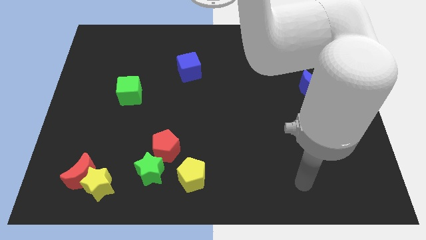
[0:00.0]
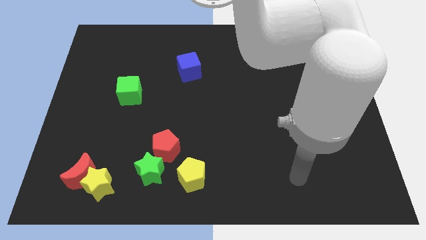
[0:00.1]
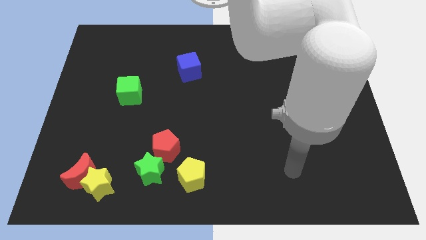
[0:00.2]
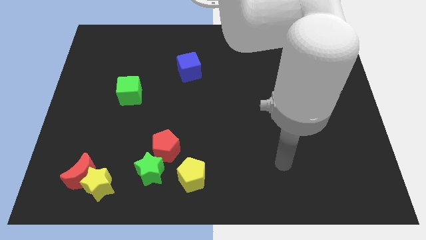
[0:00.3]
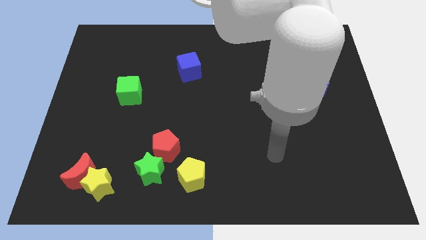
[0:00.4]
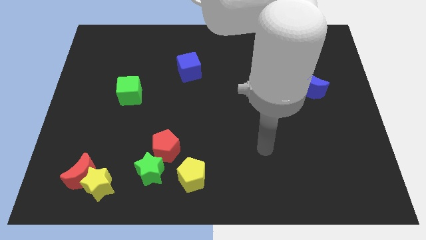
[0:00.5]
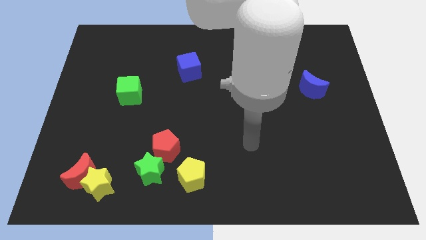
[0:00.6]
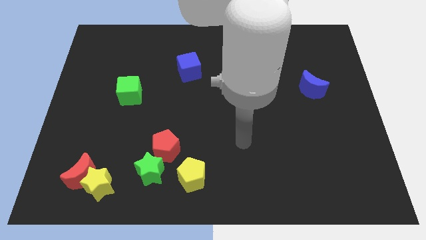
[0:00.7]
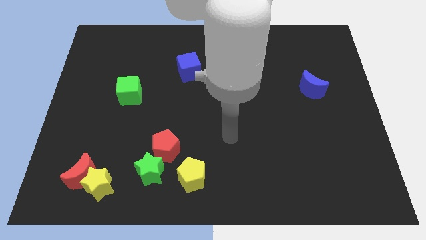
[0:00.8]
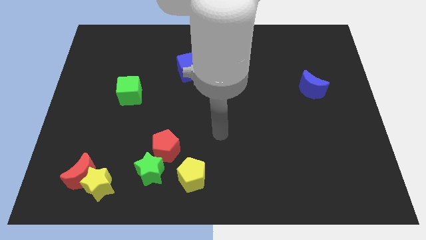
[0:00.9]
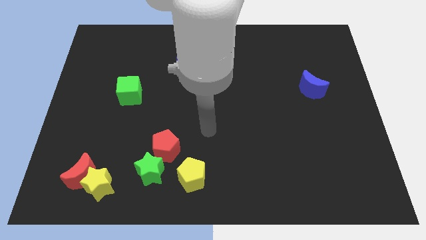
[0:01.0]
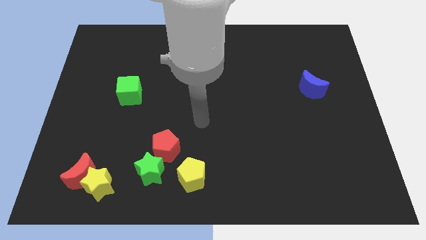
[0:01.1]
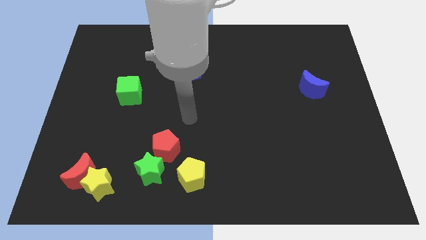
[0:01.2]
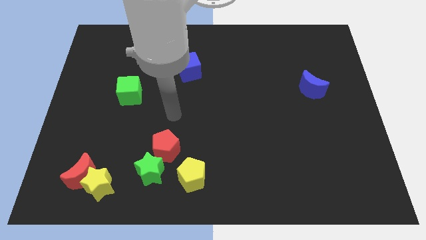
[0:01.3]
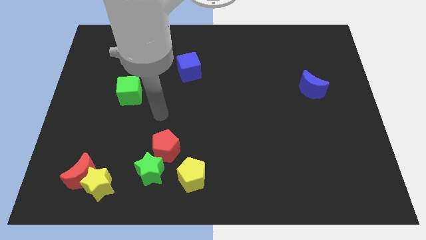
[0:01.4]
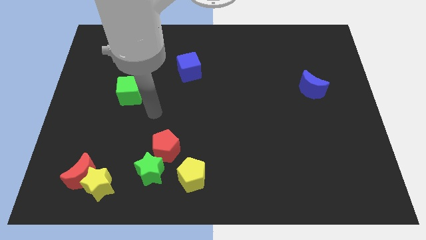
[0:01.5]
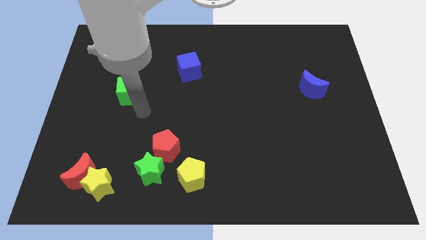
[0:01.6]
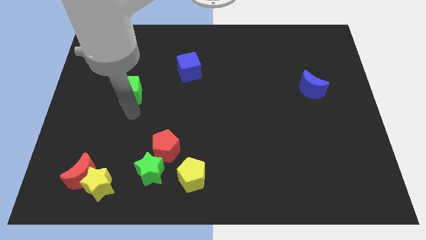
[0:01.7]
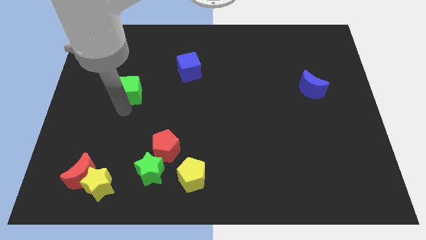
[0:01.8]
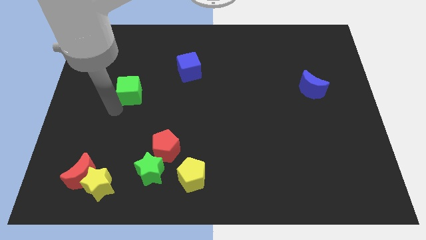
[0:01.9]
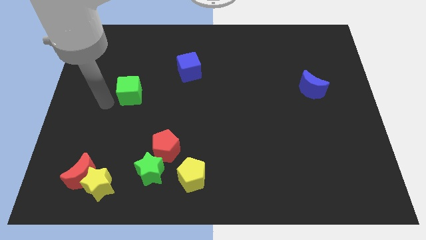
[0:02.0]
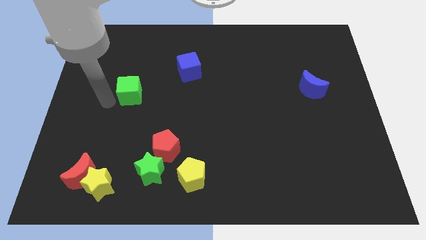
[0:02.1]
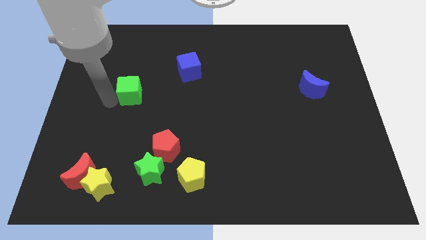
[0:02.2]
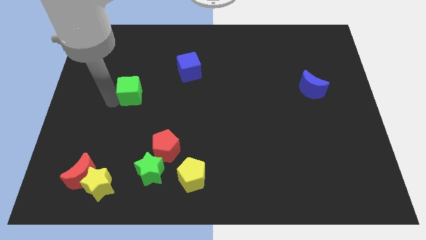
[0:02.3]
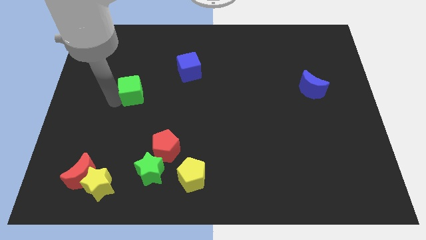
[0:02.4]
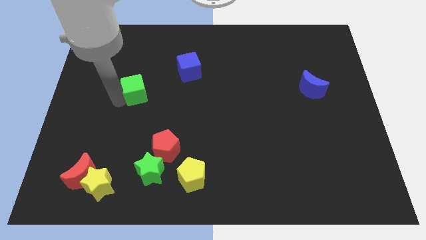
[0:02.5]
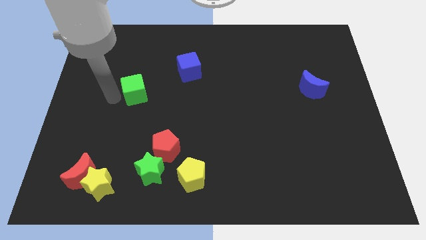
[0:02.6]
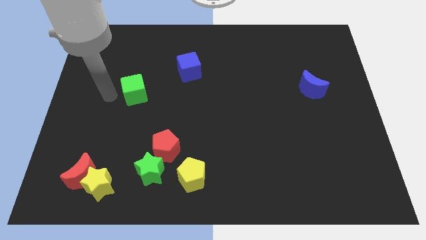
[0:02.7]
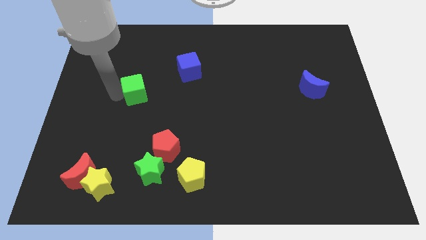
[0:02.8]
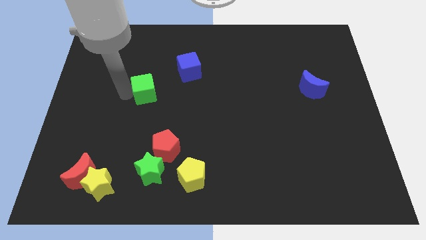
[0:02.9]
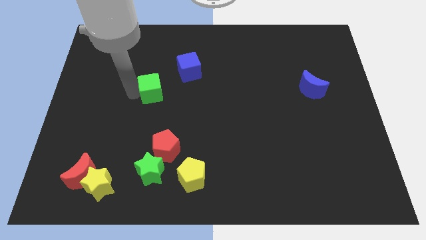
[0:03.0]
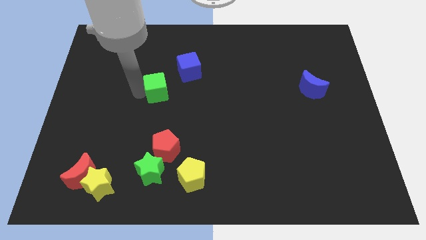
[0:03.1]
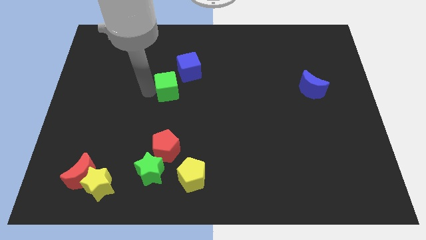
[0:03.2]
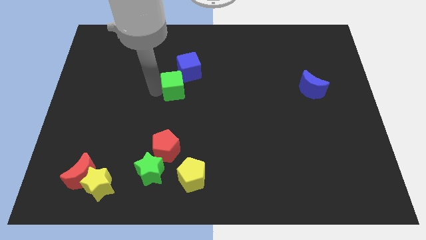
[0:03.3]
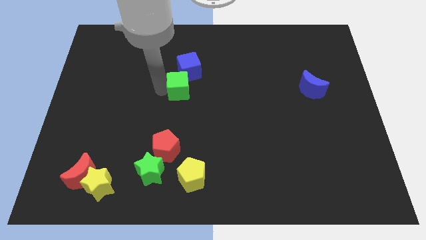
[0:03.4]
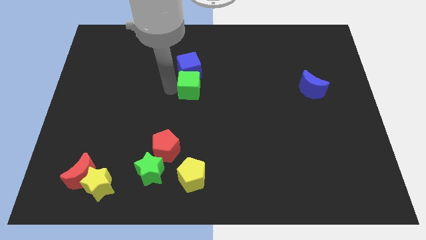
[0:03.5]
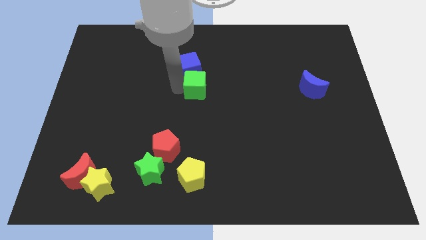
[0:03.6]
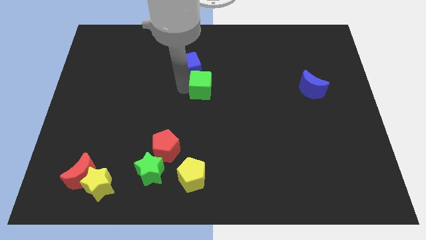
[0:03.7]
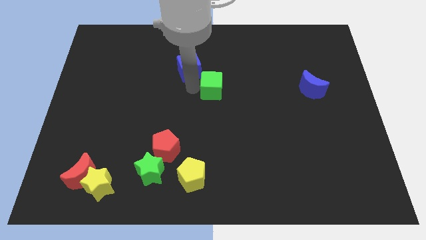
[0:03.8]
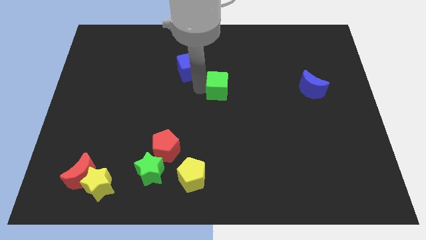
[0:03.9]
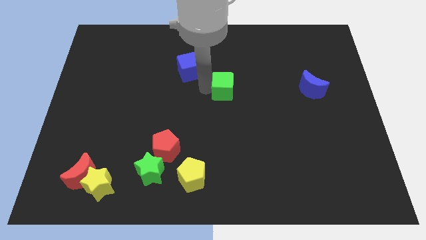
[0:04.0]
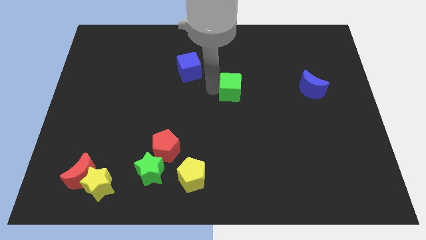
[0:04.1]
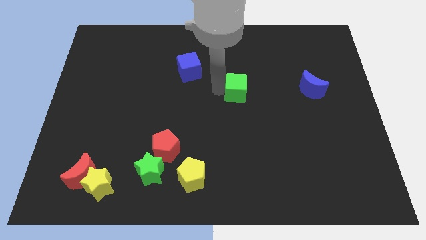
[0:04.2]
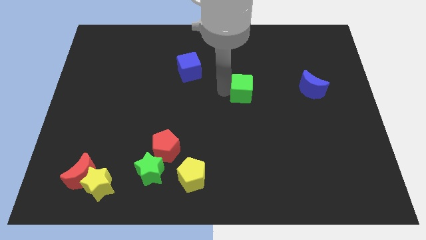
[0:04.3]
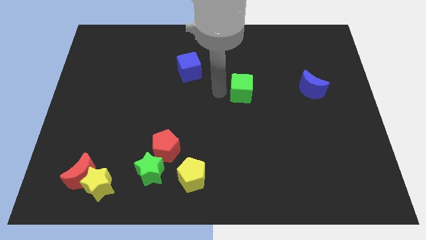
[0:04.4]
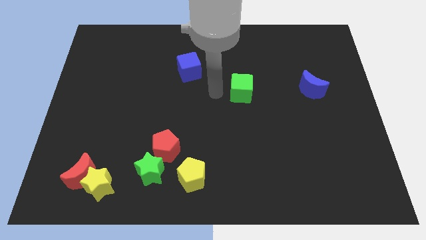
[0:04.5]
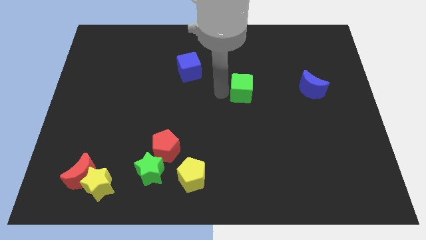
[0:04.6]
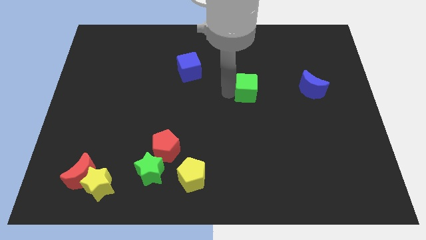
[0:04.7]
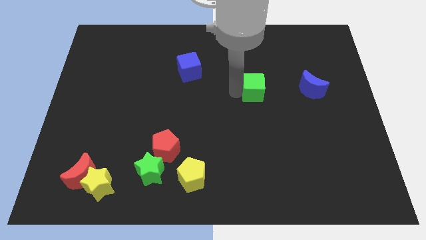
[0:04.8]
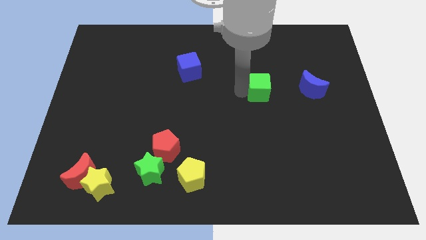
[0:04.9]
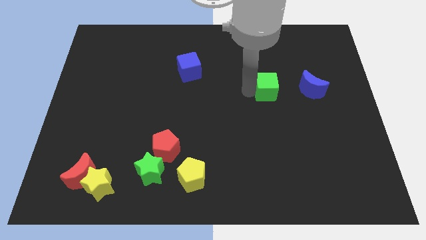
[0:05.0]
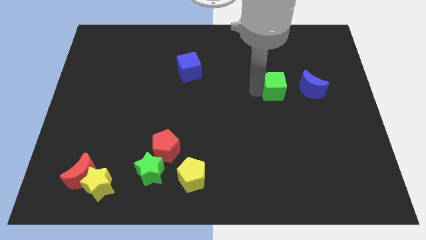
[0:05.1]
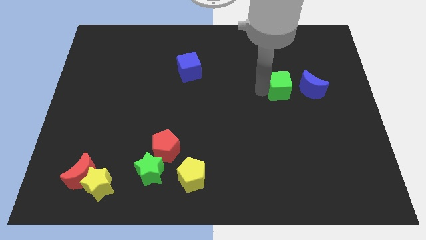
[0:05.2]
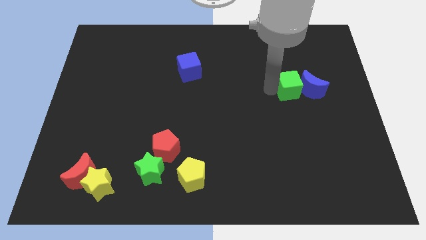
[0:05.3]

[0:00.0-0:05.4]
slide the green cube close to the blue moon

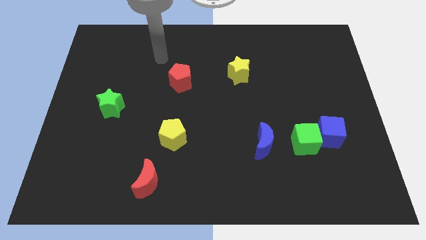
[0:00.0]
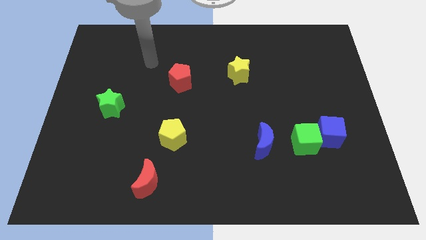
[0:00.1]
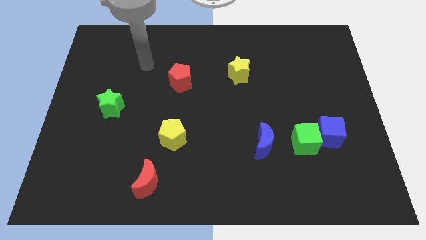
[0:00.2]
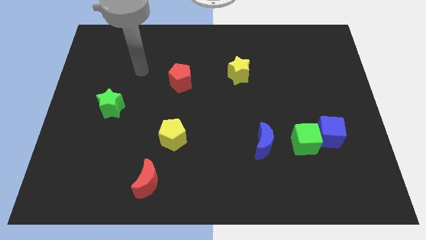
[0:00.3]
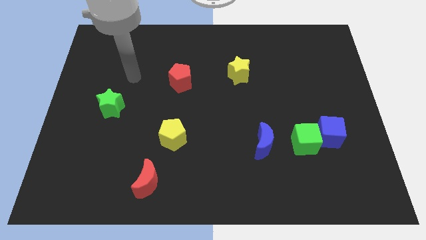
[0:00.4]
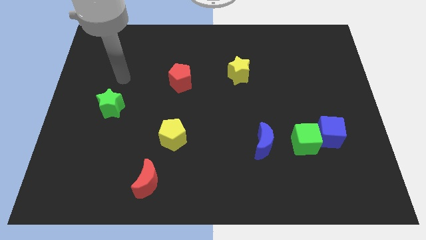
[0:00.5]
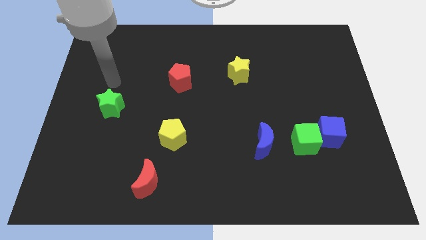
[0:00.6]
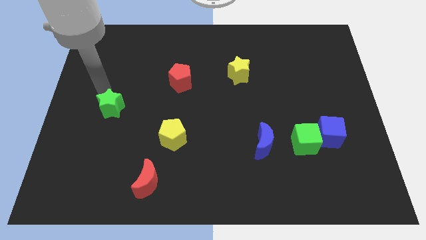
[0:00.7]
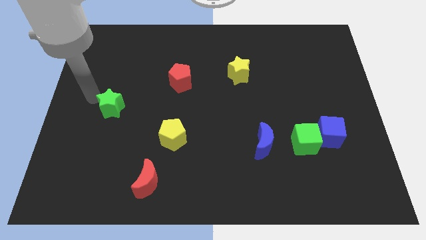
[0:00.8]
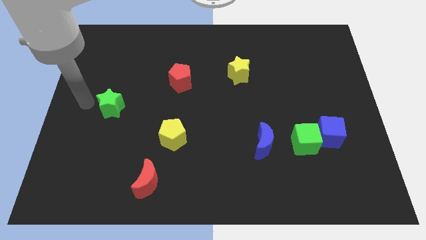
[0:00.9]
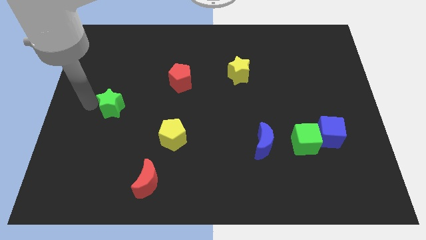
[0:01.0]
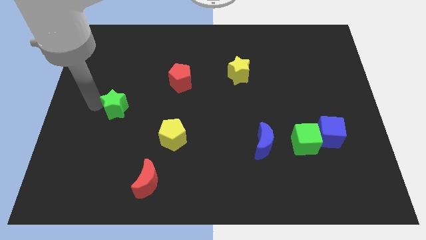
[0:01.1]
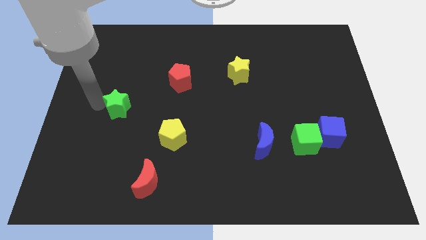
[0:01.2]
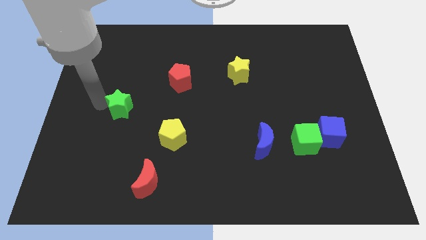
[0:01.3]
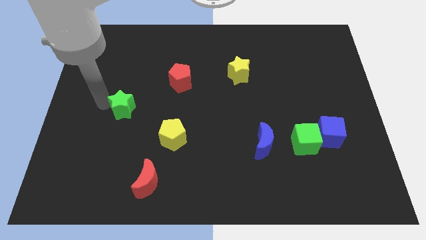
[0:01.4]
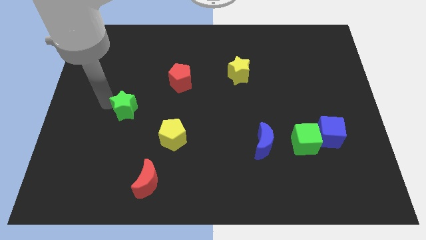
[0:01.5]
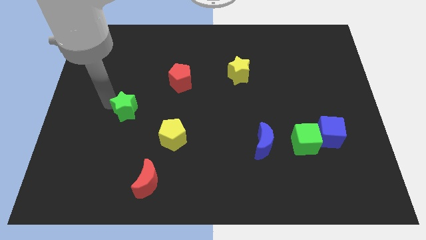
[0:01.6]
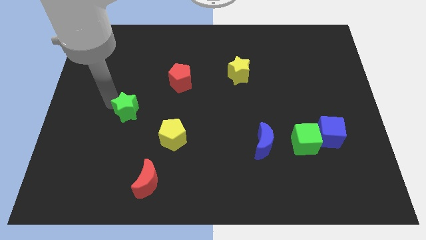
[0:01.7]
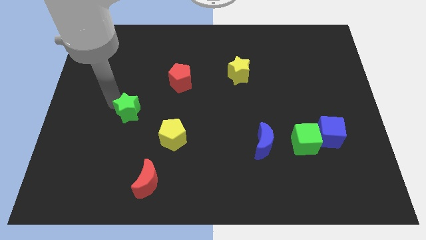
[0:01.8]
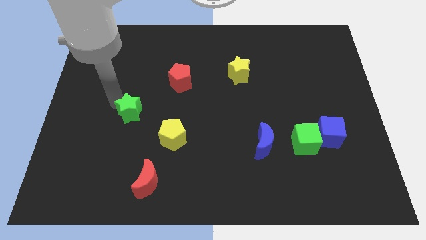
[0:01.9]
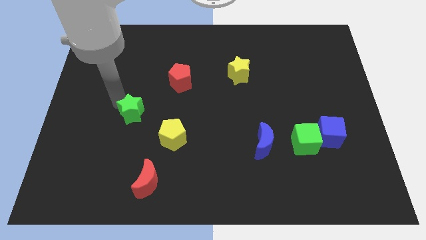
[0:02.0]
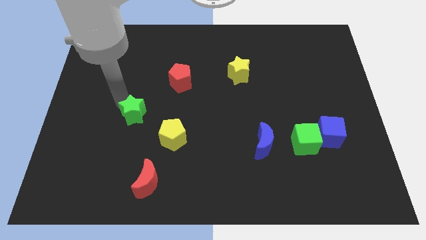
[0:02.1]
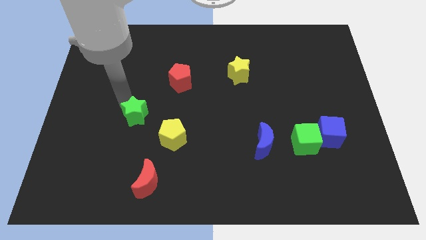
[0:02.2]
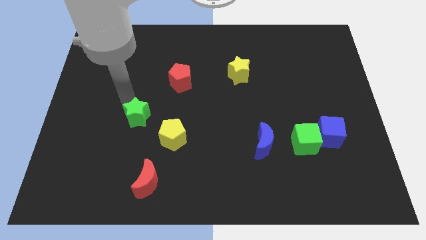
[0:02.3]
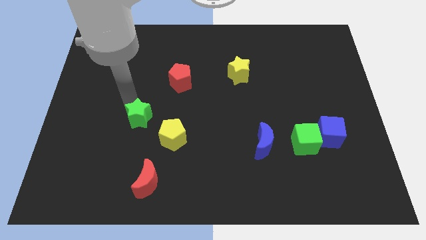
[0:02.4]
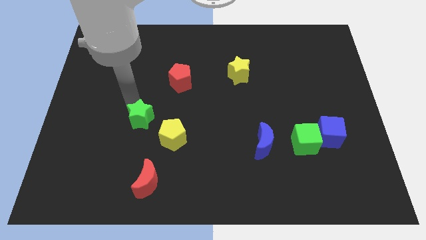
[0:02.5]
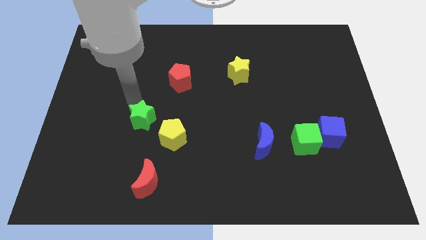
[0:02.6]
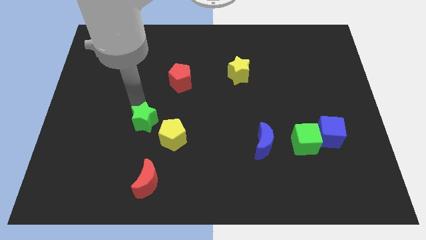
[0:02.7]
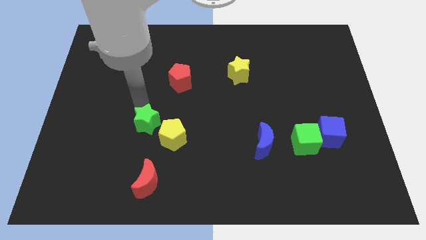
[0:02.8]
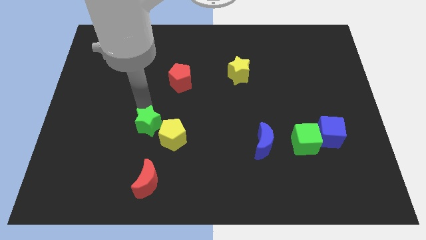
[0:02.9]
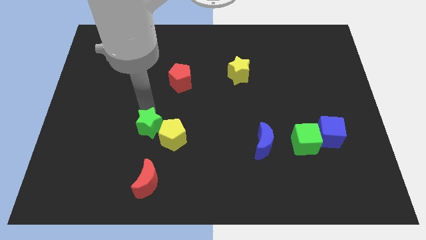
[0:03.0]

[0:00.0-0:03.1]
put the green star towards the yellow pentagon
